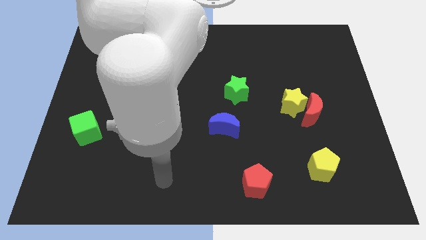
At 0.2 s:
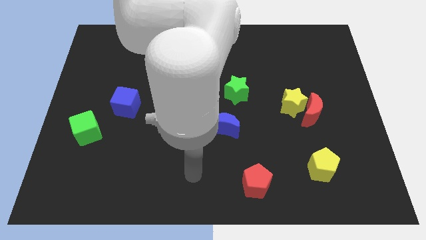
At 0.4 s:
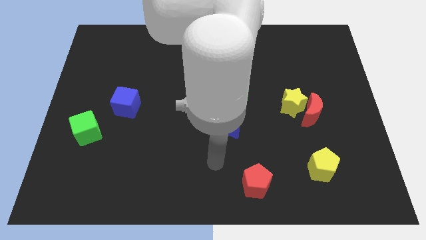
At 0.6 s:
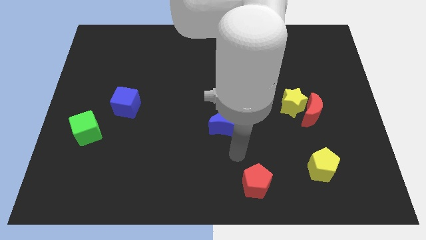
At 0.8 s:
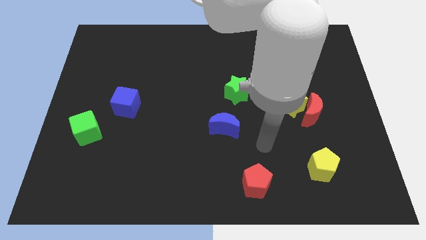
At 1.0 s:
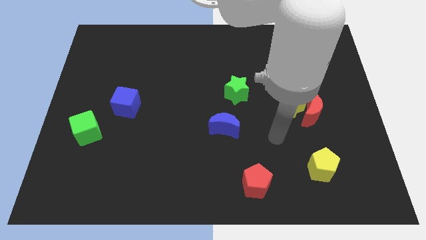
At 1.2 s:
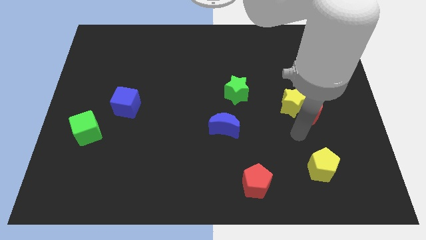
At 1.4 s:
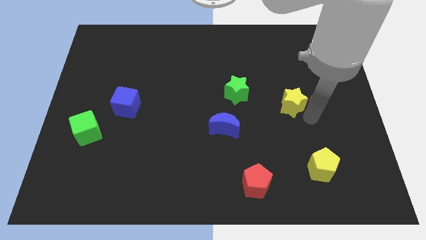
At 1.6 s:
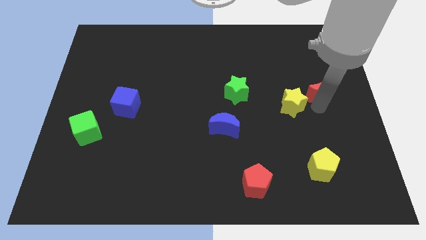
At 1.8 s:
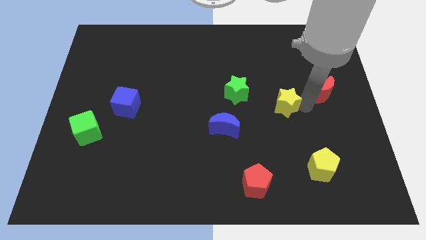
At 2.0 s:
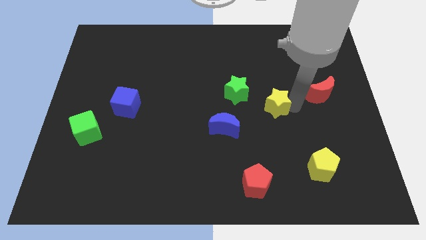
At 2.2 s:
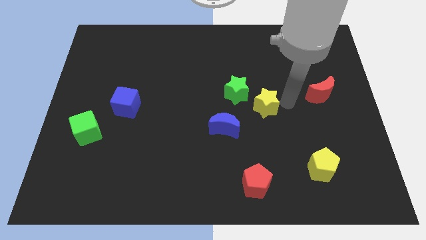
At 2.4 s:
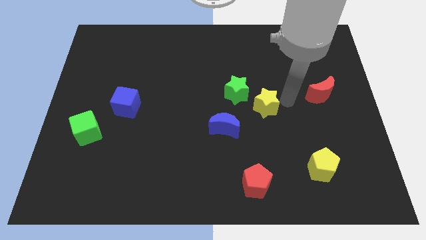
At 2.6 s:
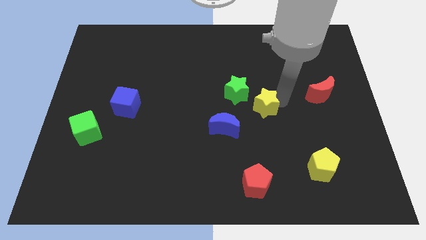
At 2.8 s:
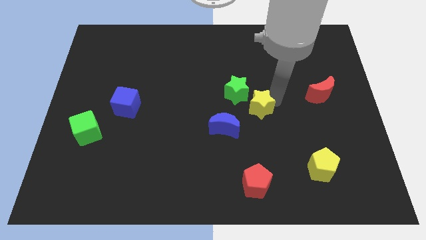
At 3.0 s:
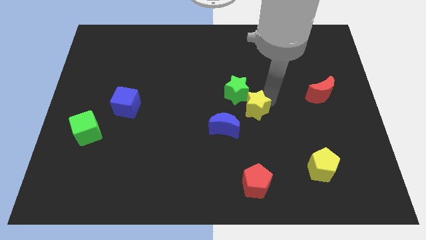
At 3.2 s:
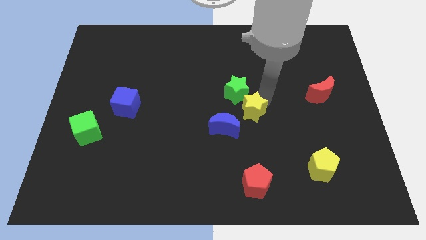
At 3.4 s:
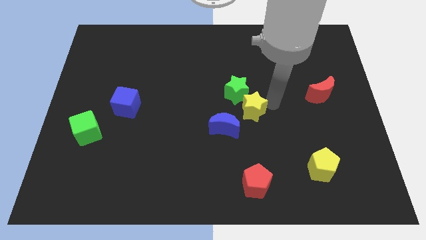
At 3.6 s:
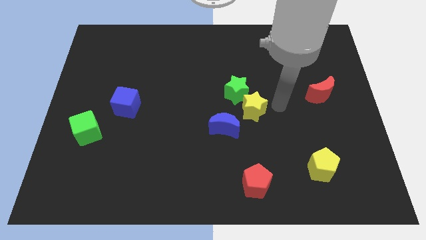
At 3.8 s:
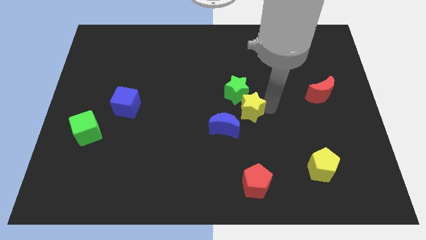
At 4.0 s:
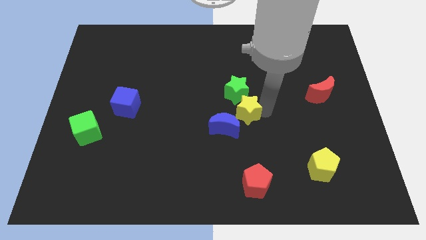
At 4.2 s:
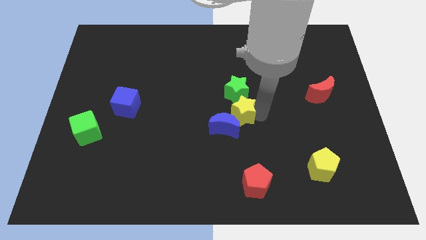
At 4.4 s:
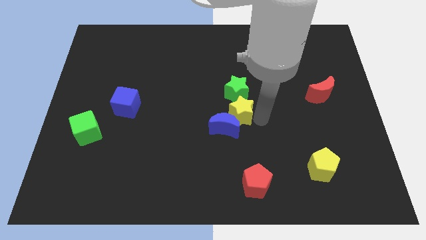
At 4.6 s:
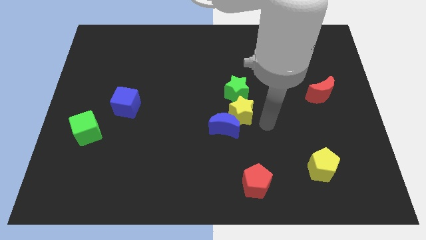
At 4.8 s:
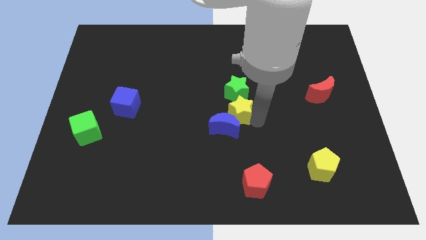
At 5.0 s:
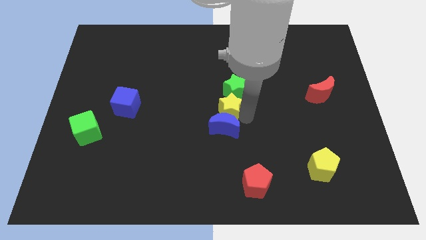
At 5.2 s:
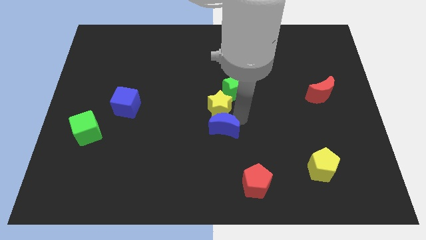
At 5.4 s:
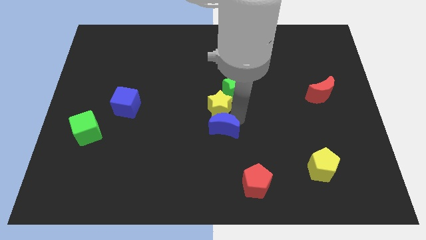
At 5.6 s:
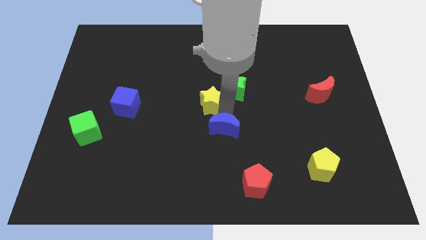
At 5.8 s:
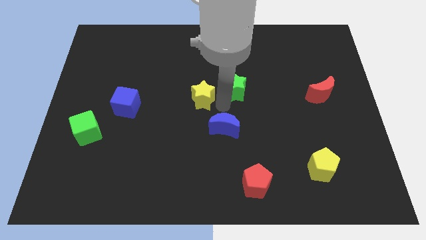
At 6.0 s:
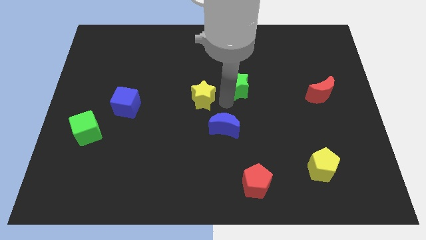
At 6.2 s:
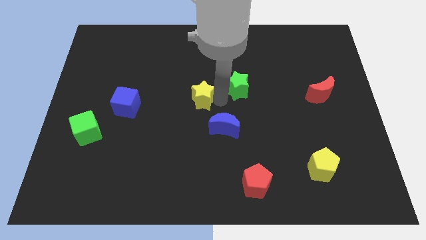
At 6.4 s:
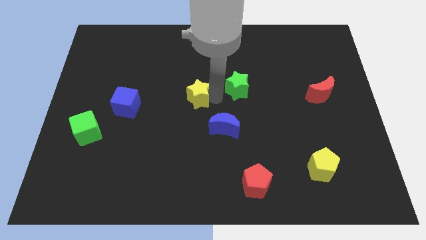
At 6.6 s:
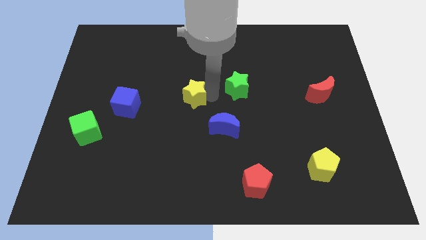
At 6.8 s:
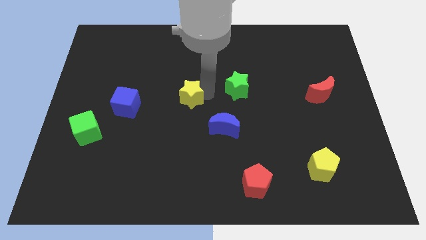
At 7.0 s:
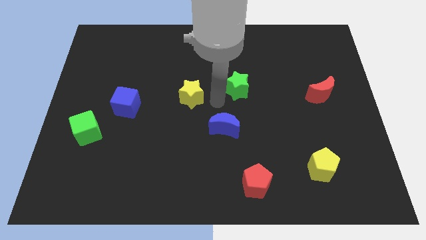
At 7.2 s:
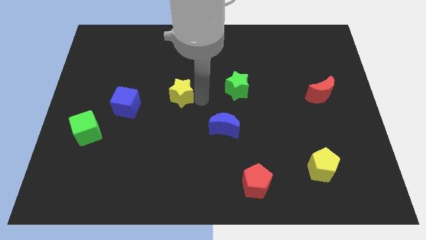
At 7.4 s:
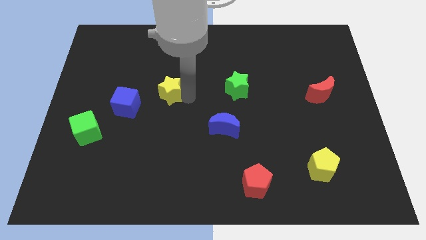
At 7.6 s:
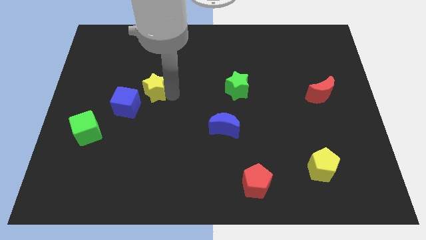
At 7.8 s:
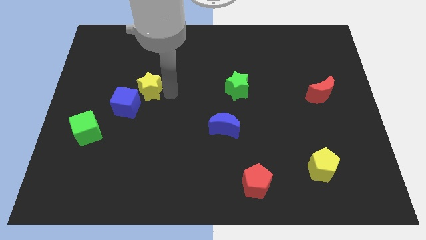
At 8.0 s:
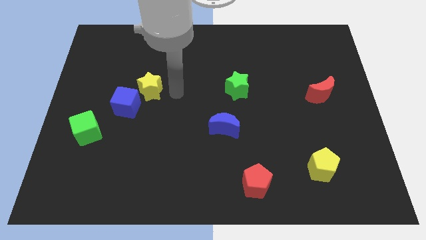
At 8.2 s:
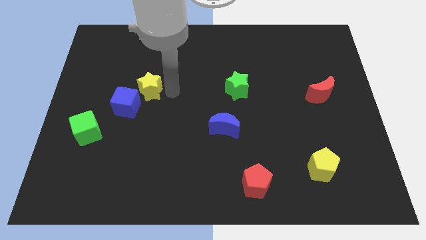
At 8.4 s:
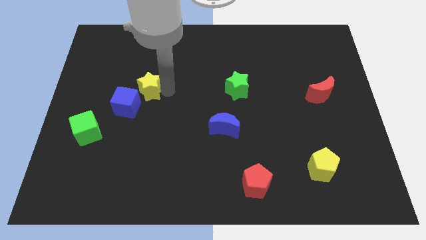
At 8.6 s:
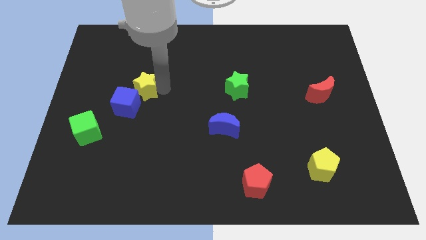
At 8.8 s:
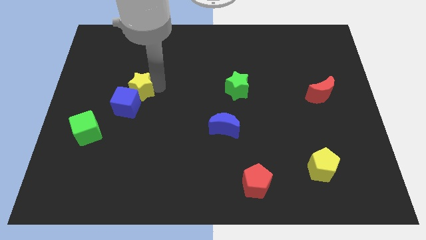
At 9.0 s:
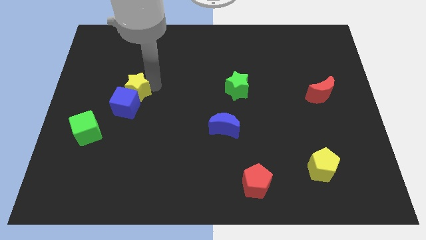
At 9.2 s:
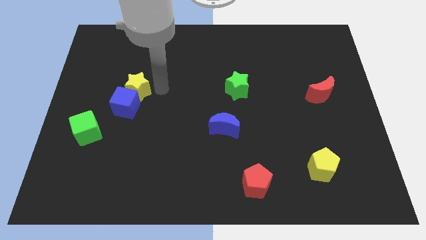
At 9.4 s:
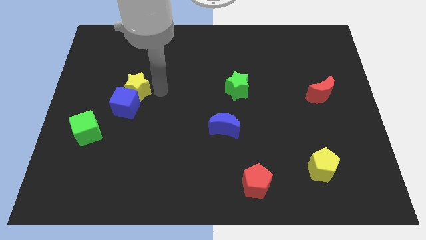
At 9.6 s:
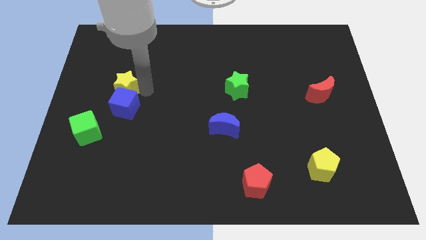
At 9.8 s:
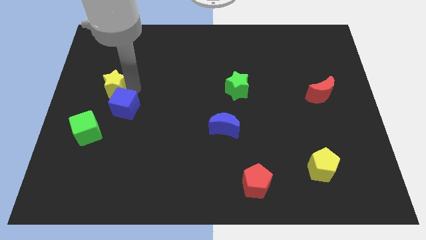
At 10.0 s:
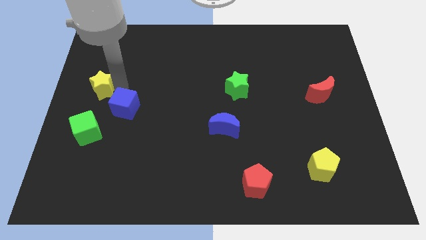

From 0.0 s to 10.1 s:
put the yellow star to the center left

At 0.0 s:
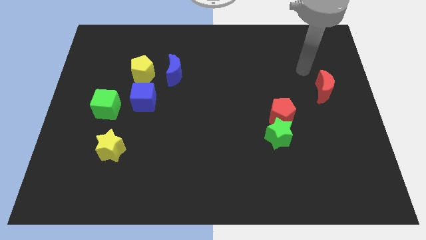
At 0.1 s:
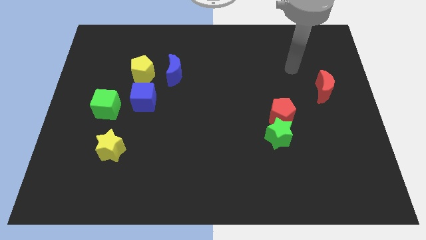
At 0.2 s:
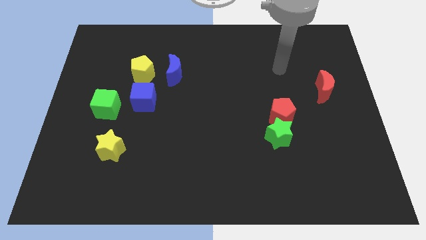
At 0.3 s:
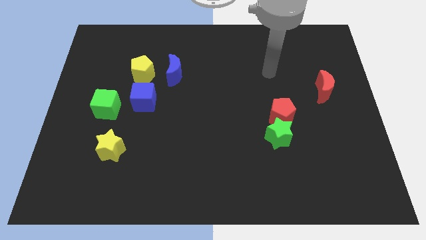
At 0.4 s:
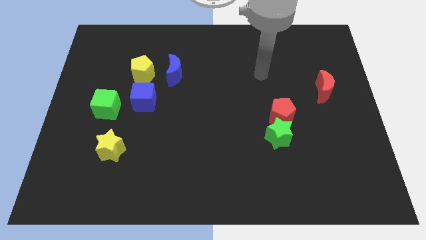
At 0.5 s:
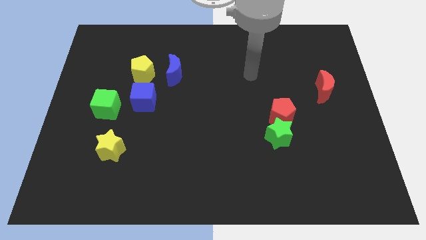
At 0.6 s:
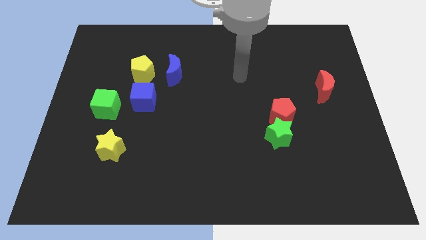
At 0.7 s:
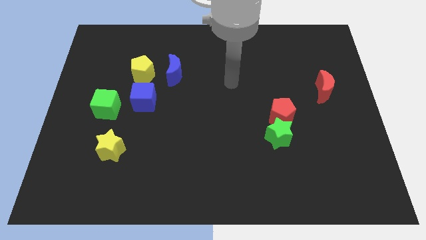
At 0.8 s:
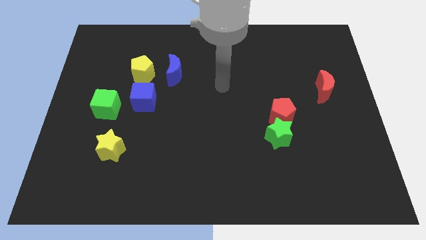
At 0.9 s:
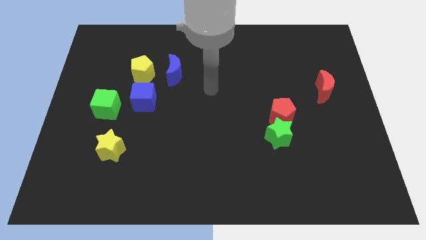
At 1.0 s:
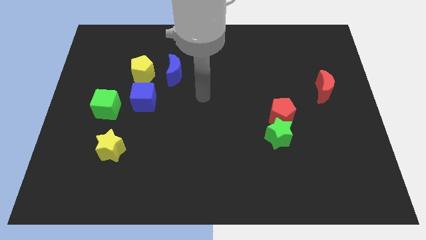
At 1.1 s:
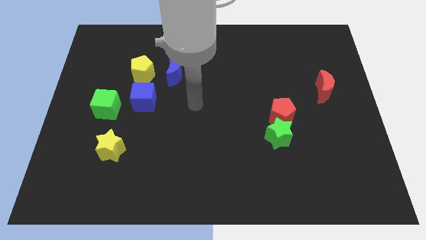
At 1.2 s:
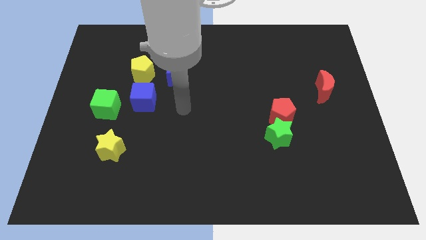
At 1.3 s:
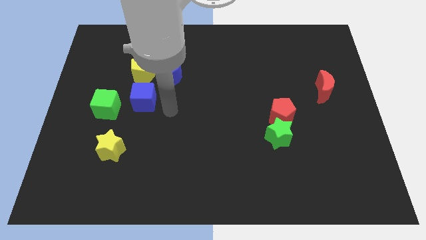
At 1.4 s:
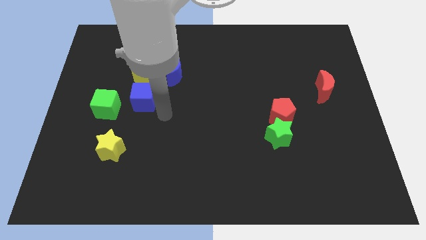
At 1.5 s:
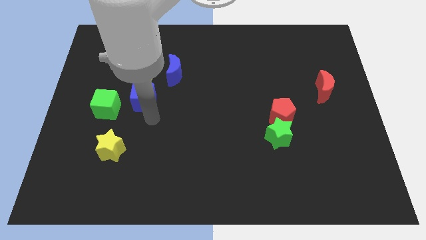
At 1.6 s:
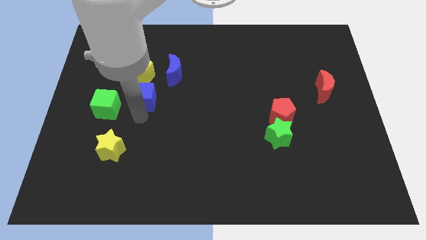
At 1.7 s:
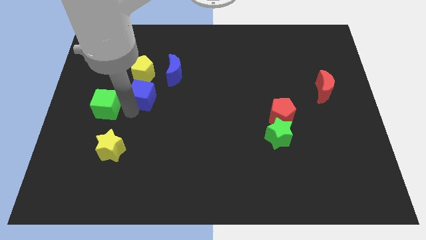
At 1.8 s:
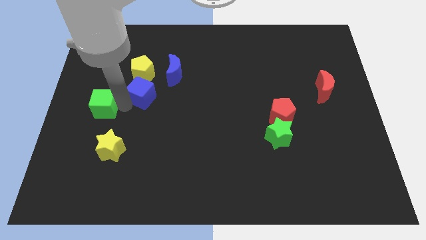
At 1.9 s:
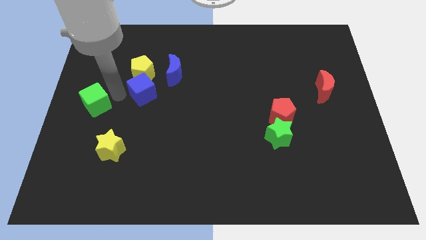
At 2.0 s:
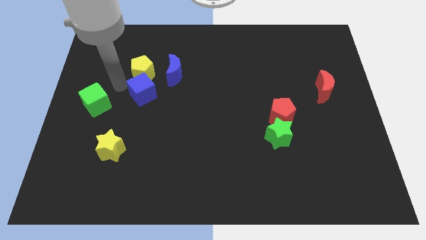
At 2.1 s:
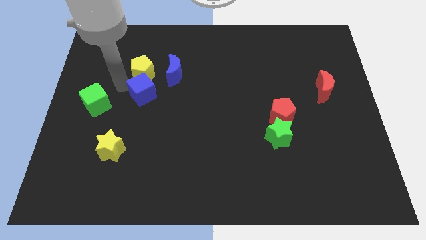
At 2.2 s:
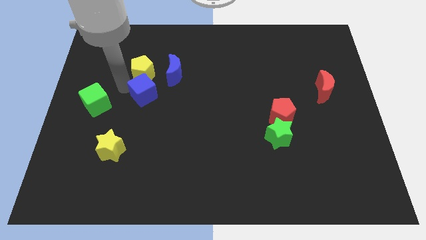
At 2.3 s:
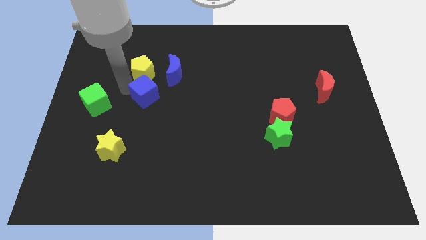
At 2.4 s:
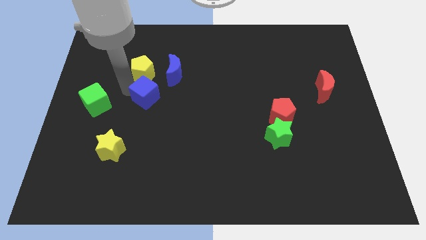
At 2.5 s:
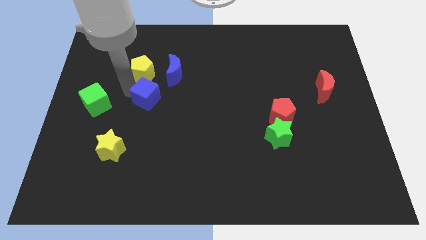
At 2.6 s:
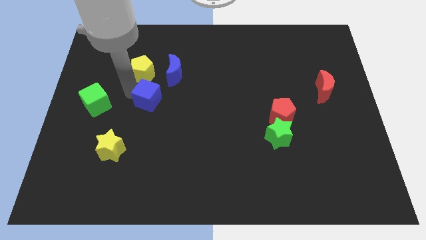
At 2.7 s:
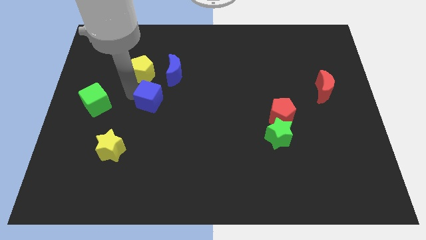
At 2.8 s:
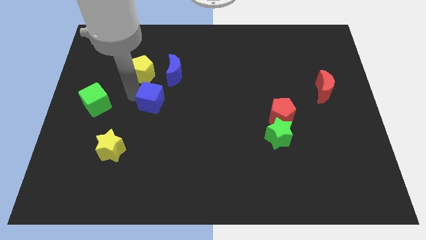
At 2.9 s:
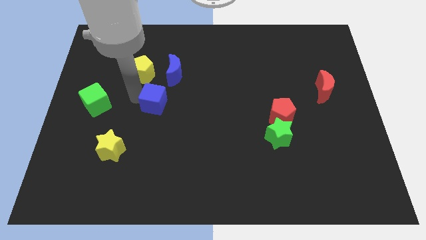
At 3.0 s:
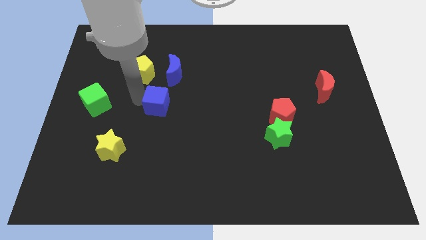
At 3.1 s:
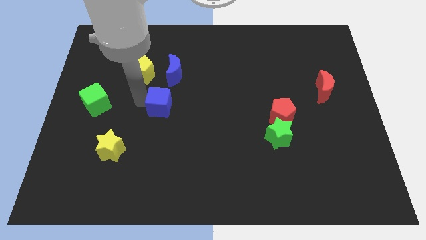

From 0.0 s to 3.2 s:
slide the blue cube to the middle
